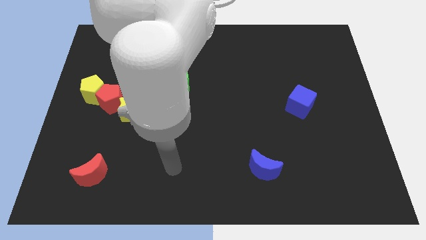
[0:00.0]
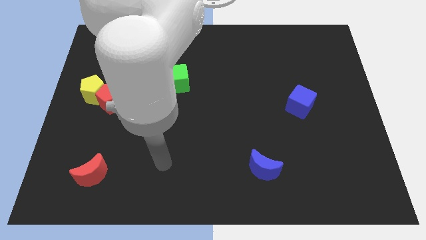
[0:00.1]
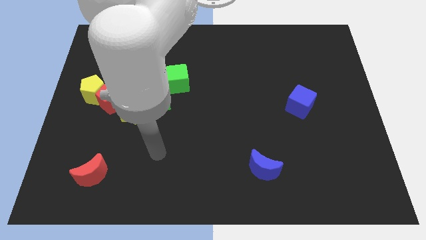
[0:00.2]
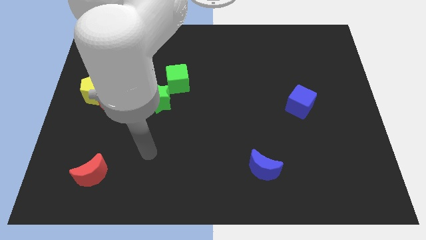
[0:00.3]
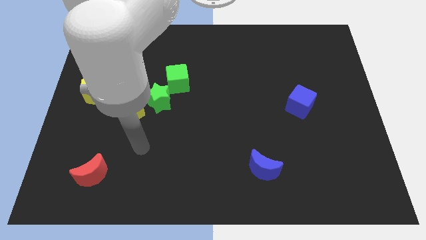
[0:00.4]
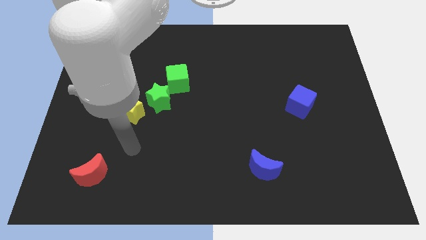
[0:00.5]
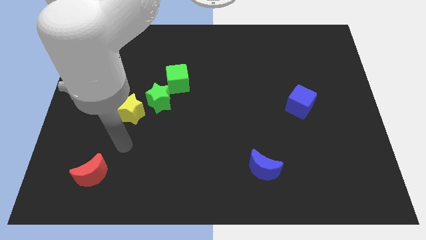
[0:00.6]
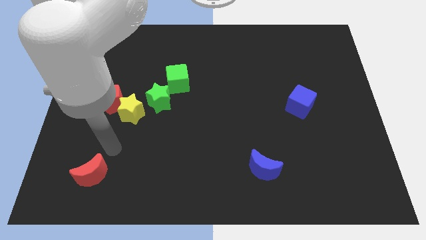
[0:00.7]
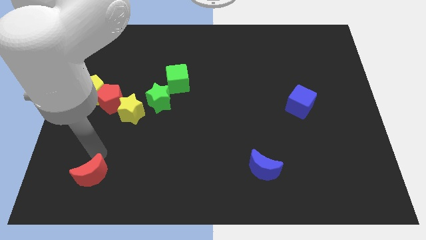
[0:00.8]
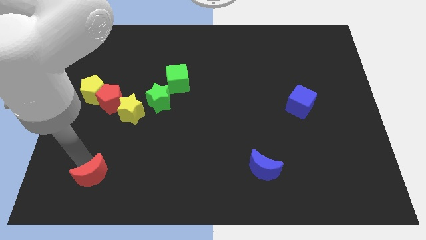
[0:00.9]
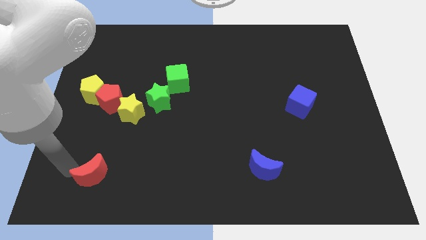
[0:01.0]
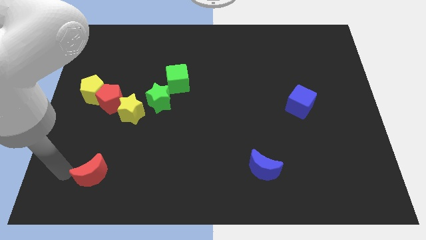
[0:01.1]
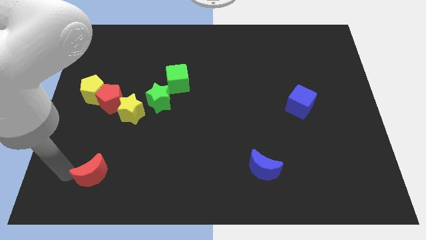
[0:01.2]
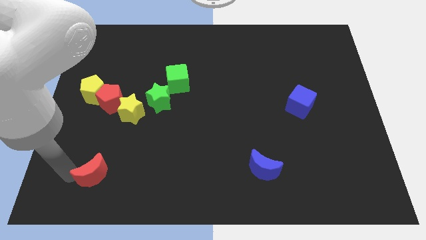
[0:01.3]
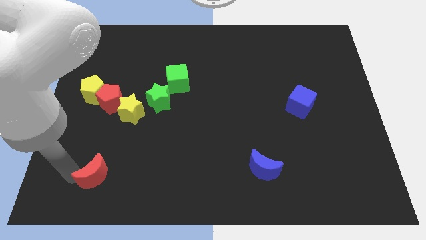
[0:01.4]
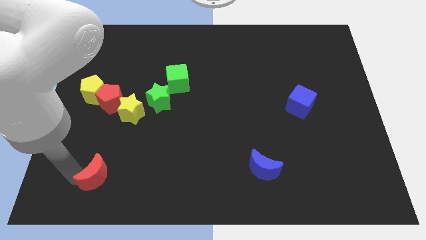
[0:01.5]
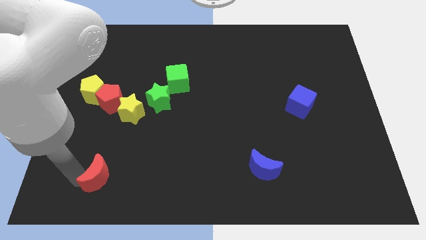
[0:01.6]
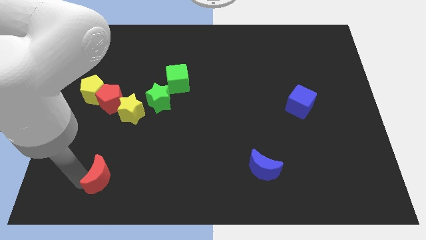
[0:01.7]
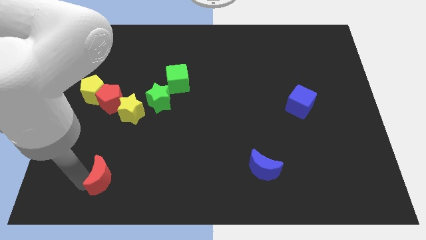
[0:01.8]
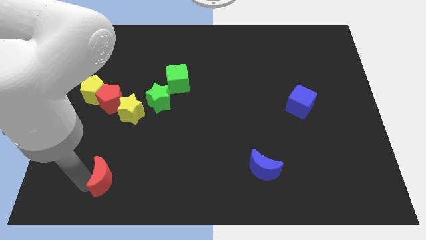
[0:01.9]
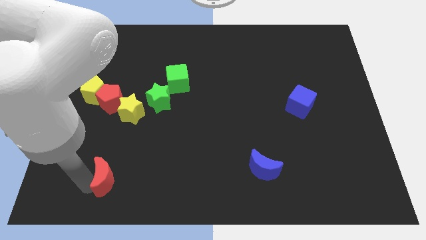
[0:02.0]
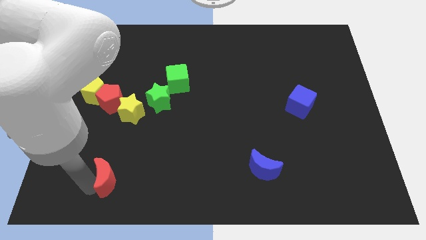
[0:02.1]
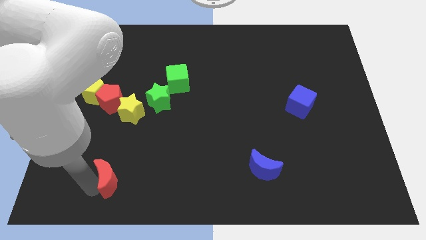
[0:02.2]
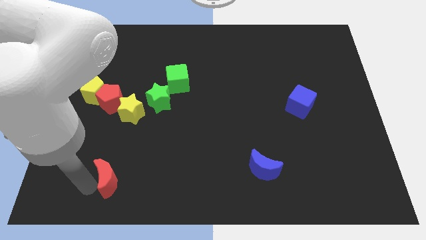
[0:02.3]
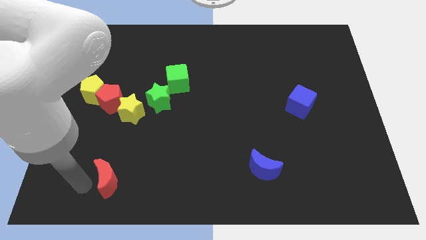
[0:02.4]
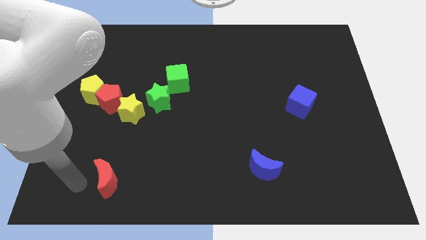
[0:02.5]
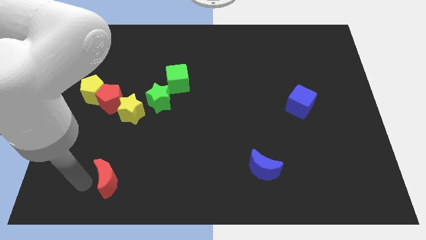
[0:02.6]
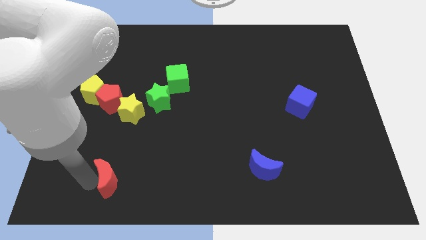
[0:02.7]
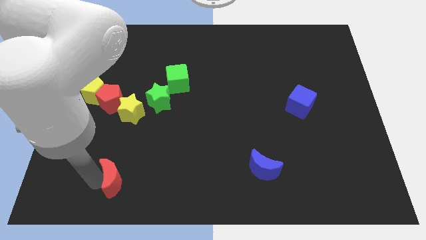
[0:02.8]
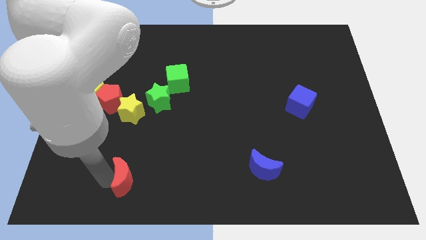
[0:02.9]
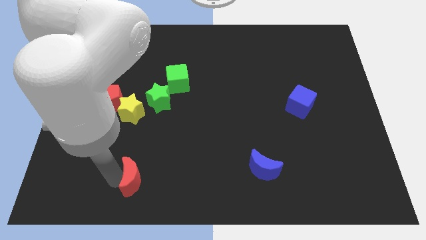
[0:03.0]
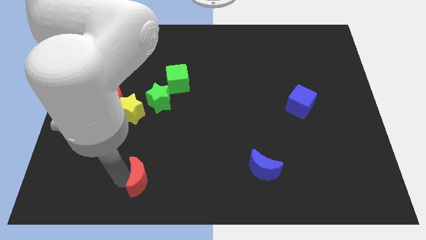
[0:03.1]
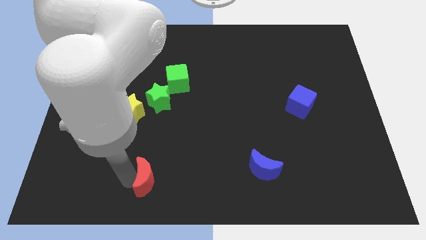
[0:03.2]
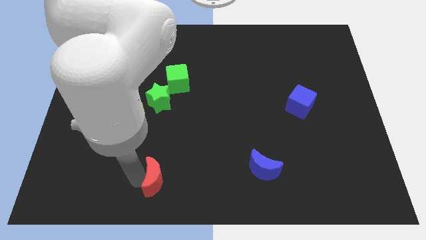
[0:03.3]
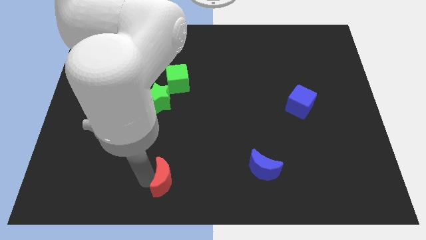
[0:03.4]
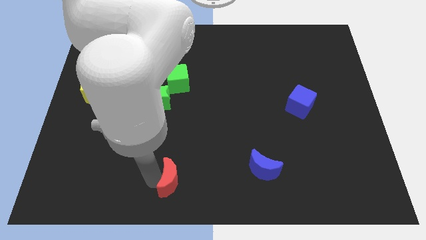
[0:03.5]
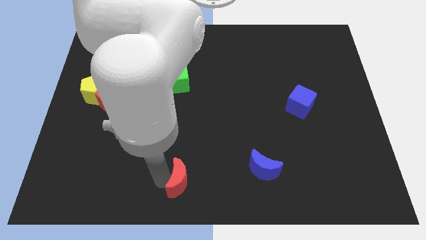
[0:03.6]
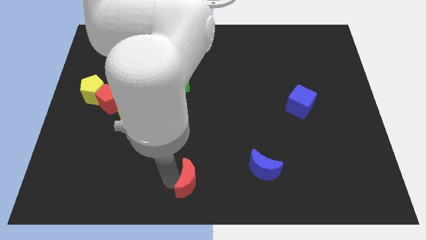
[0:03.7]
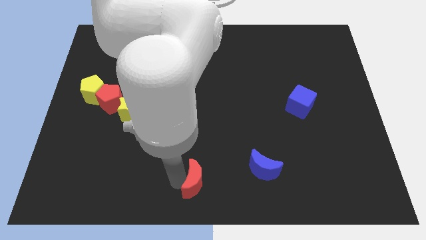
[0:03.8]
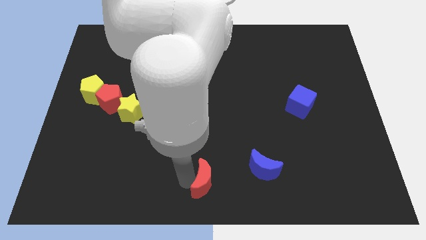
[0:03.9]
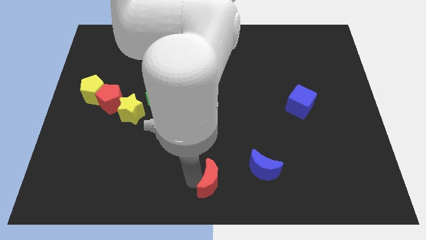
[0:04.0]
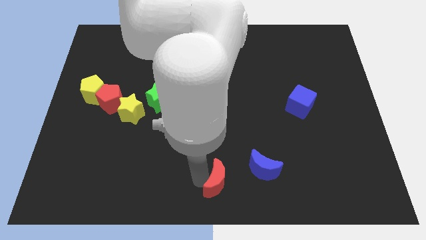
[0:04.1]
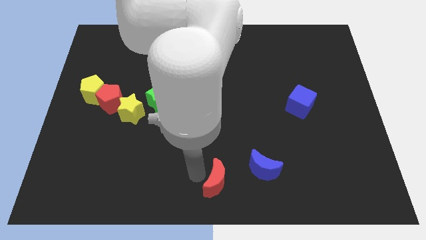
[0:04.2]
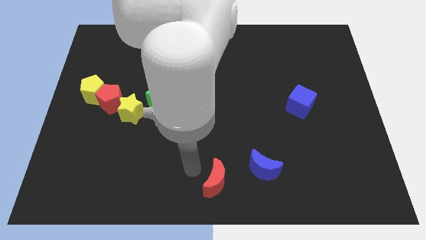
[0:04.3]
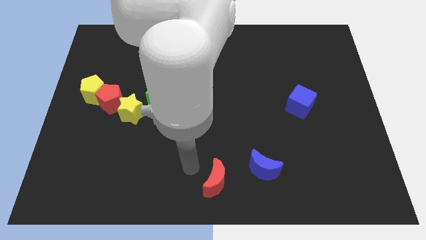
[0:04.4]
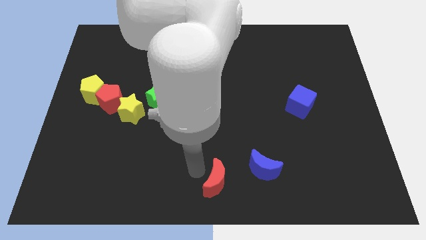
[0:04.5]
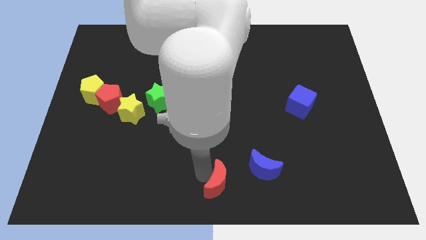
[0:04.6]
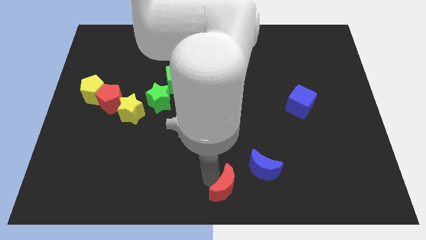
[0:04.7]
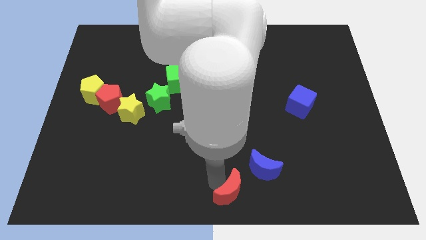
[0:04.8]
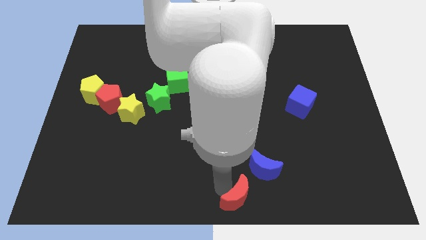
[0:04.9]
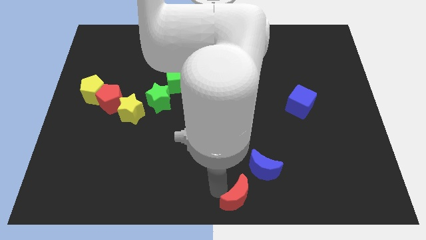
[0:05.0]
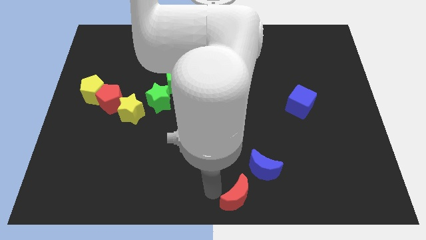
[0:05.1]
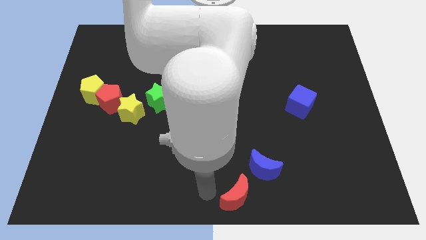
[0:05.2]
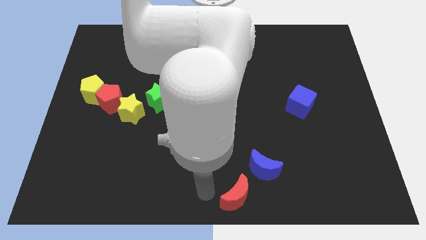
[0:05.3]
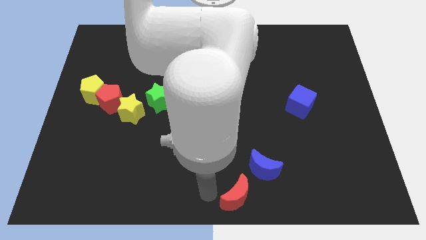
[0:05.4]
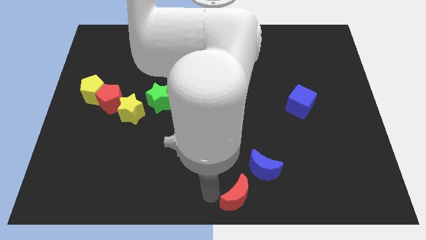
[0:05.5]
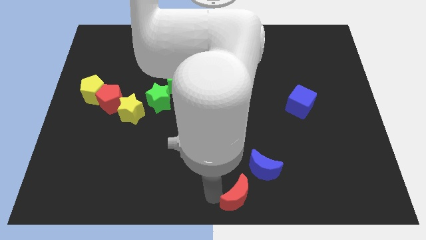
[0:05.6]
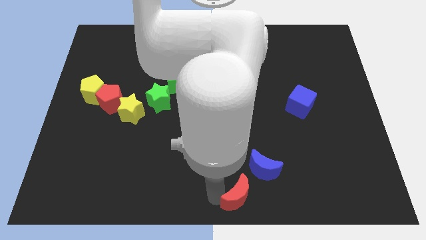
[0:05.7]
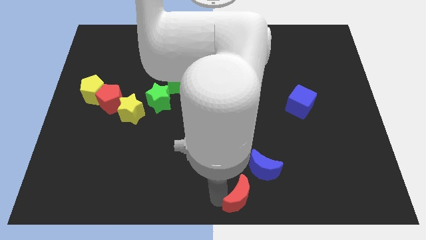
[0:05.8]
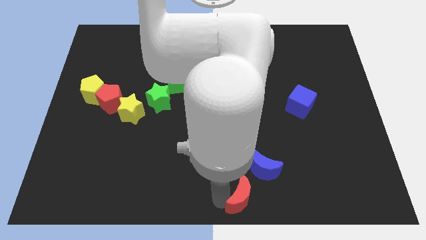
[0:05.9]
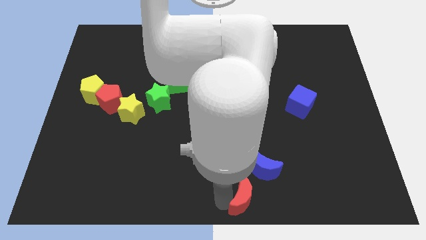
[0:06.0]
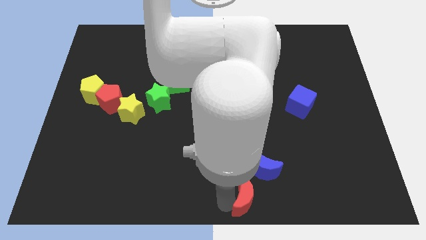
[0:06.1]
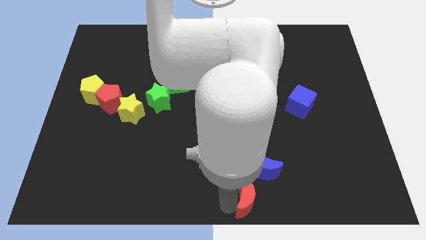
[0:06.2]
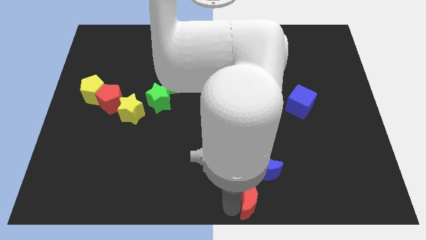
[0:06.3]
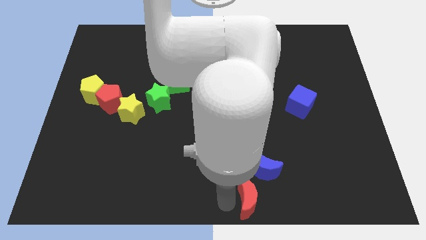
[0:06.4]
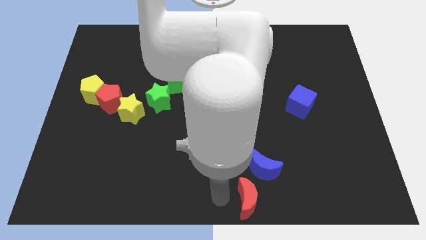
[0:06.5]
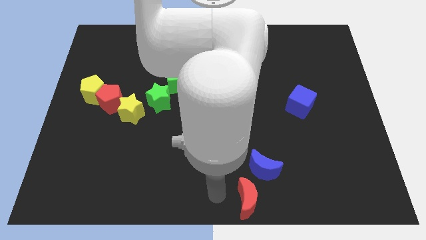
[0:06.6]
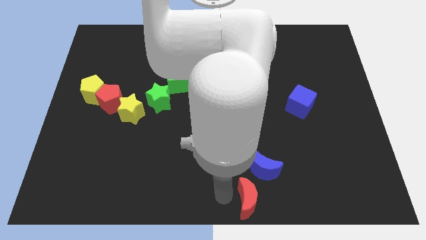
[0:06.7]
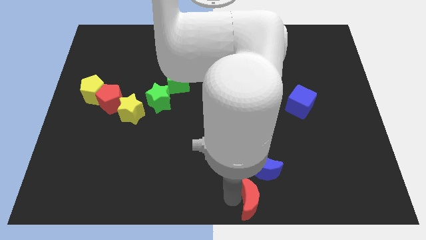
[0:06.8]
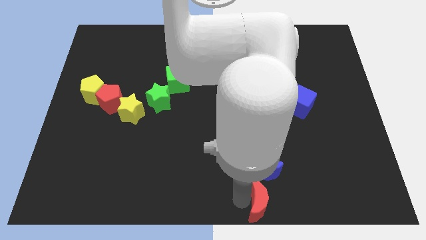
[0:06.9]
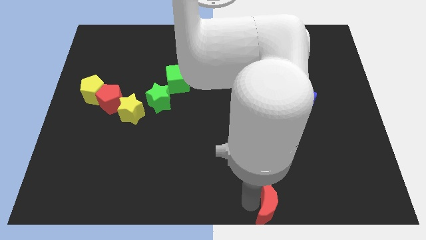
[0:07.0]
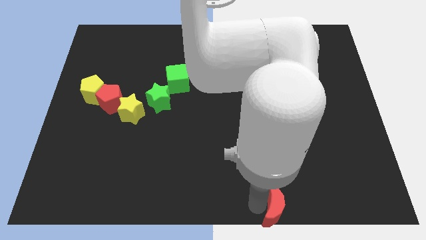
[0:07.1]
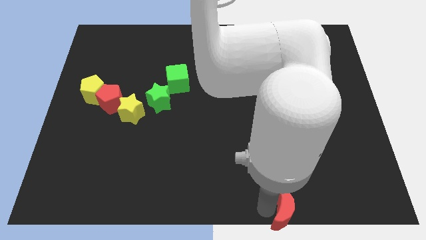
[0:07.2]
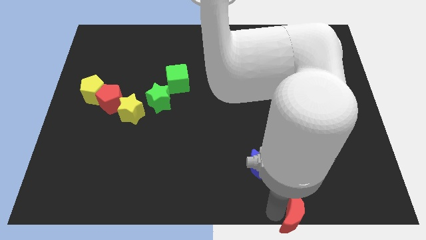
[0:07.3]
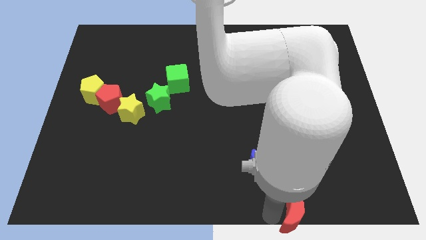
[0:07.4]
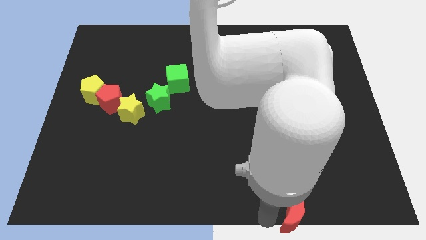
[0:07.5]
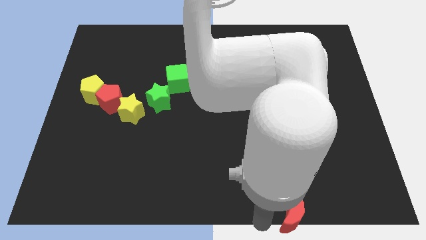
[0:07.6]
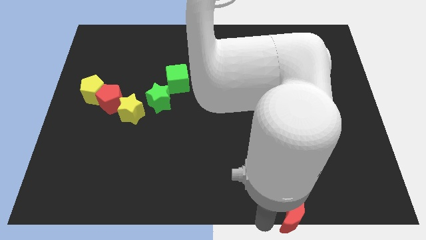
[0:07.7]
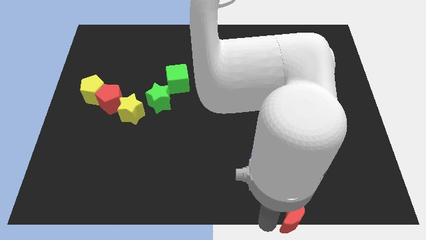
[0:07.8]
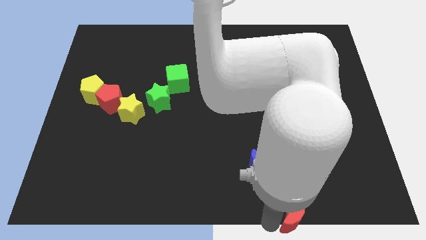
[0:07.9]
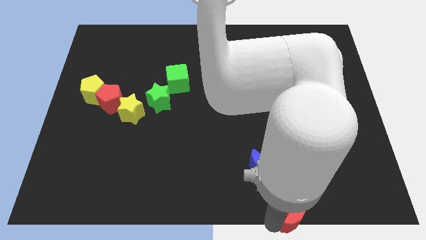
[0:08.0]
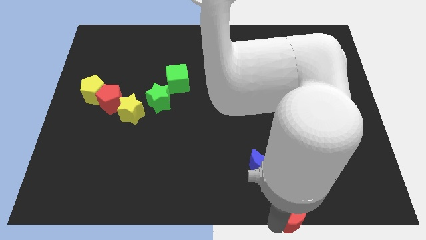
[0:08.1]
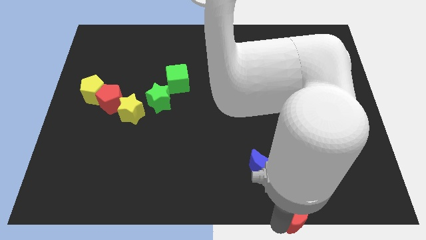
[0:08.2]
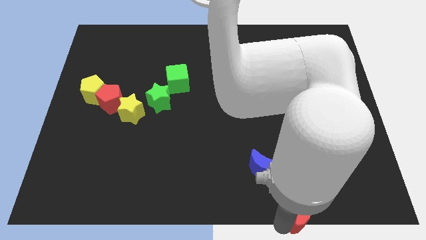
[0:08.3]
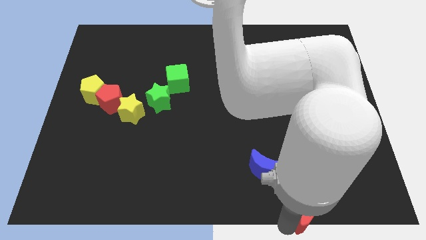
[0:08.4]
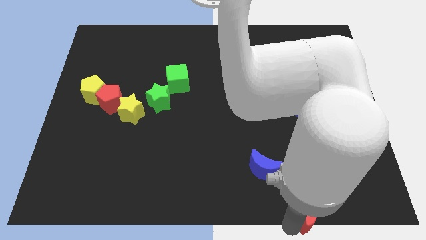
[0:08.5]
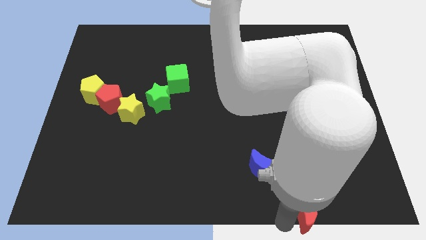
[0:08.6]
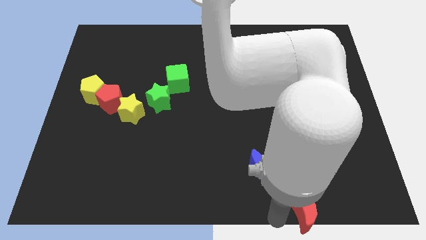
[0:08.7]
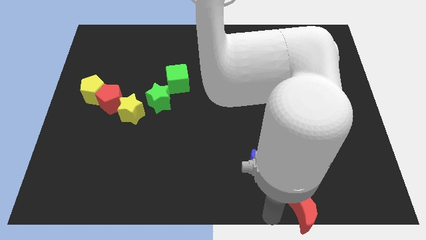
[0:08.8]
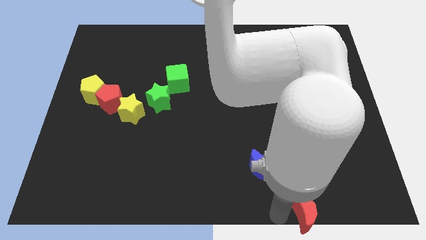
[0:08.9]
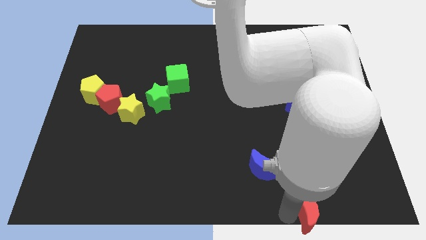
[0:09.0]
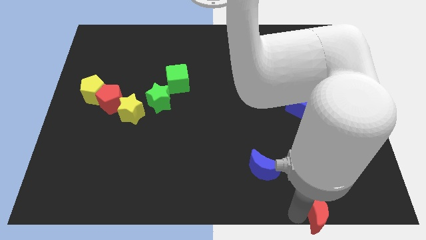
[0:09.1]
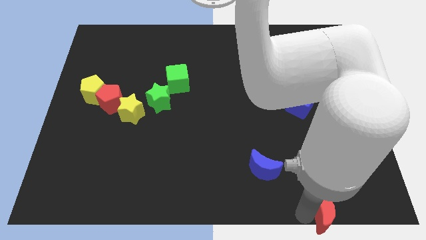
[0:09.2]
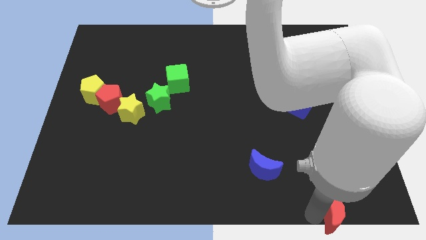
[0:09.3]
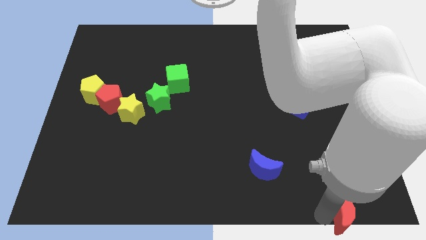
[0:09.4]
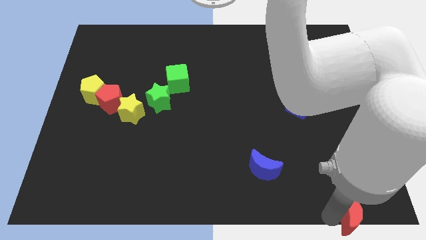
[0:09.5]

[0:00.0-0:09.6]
slide the red moon to the lower right corner
